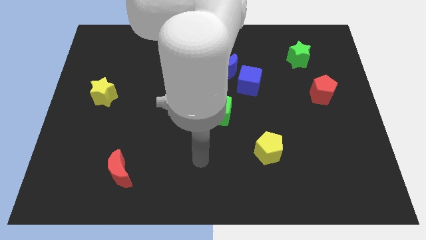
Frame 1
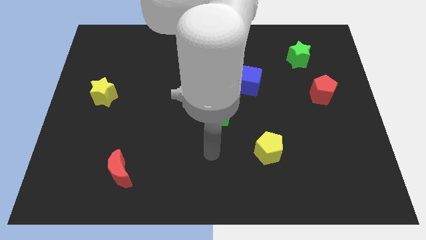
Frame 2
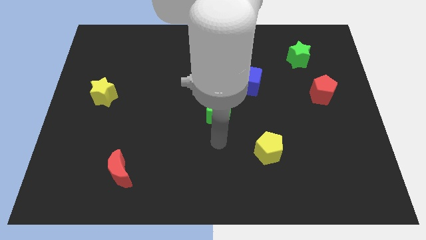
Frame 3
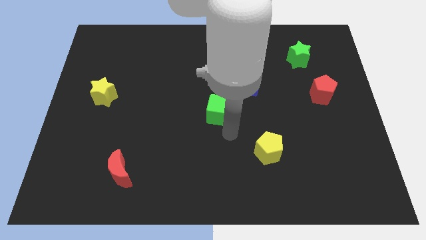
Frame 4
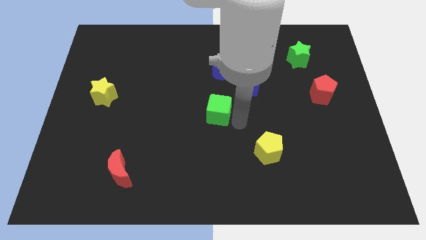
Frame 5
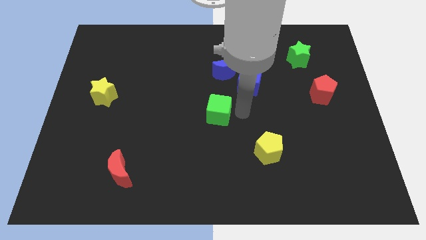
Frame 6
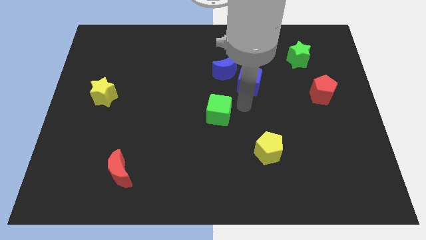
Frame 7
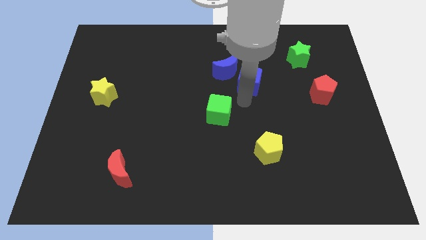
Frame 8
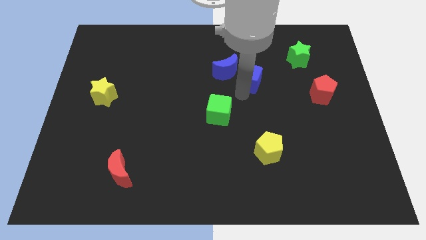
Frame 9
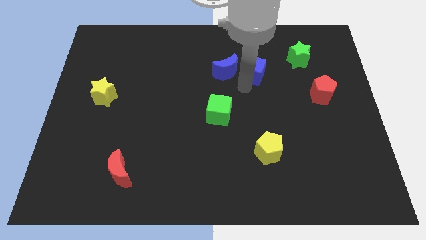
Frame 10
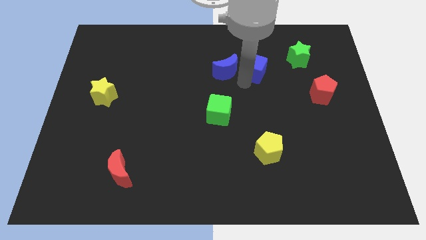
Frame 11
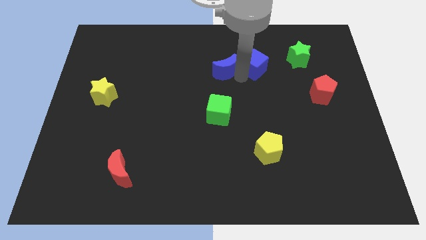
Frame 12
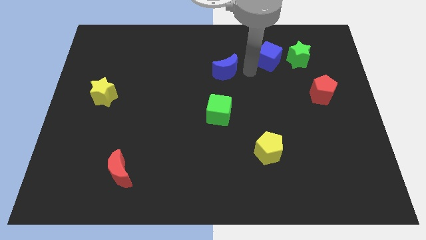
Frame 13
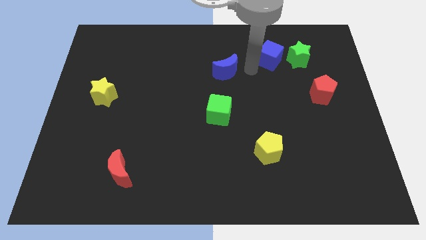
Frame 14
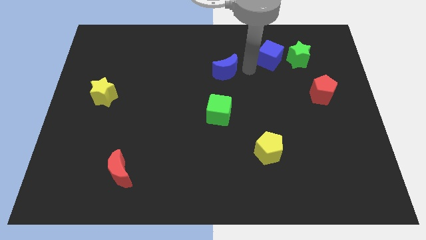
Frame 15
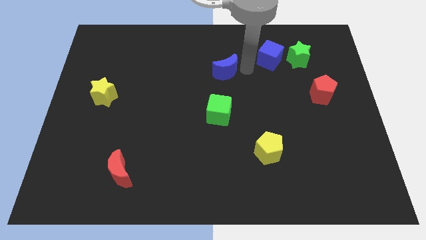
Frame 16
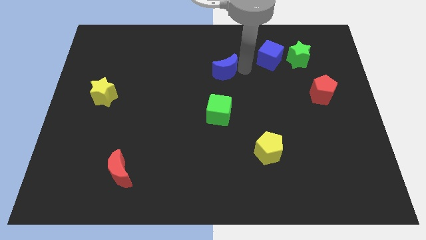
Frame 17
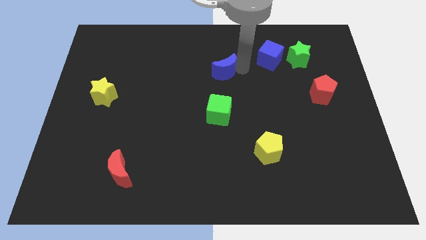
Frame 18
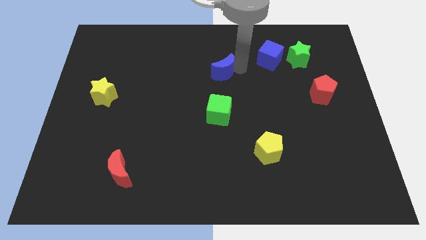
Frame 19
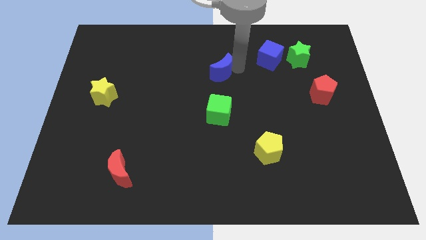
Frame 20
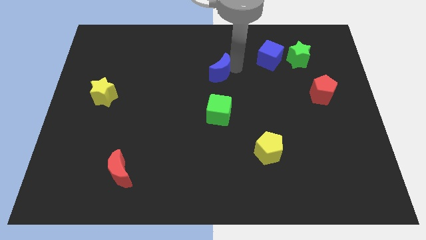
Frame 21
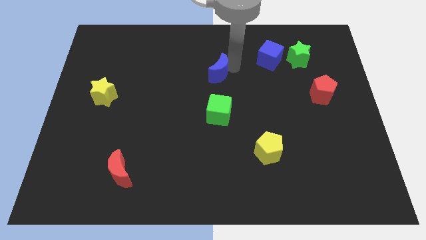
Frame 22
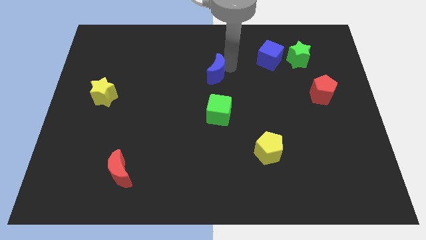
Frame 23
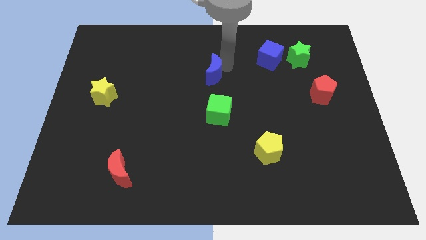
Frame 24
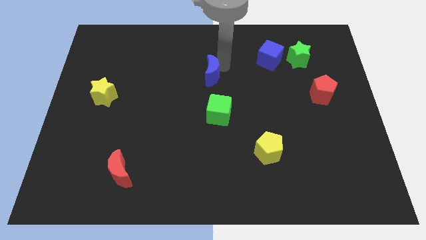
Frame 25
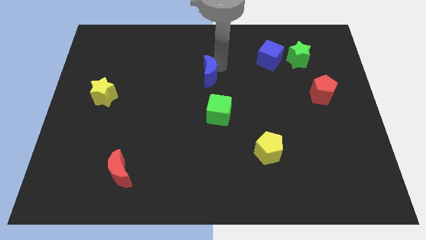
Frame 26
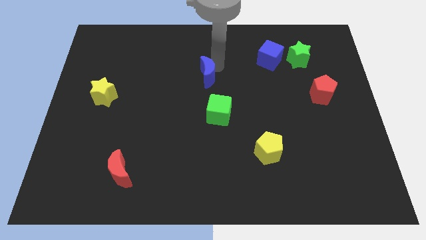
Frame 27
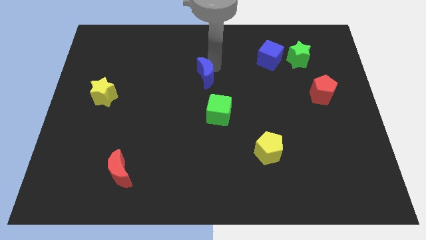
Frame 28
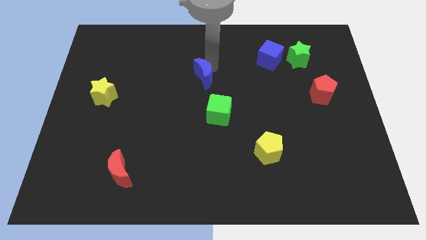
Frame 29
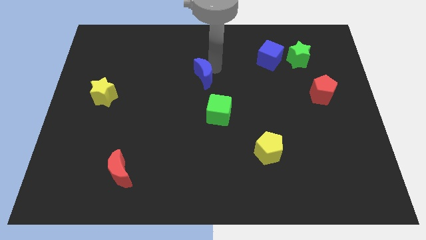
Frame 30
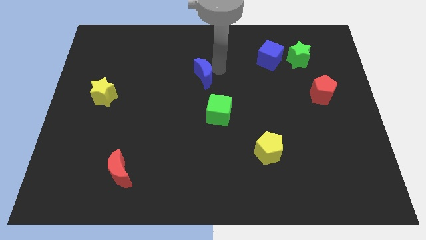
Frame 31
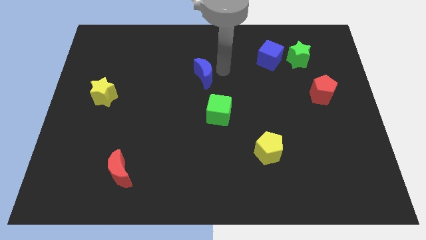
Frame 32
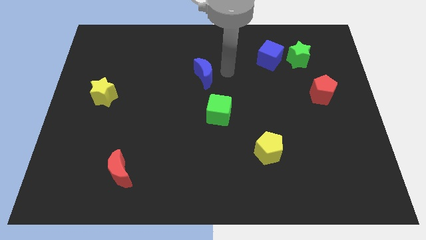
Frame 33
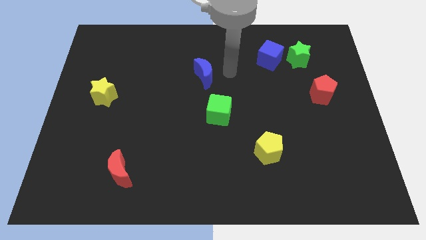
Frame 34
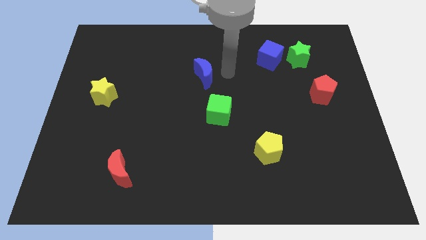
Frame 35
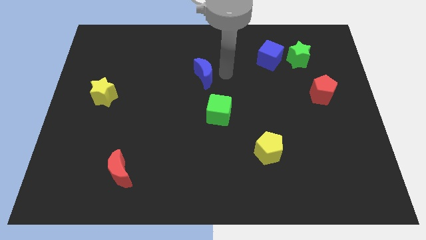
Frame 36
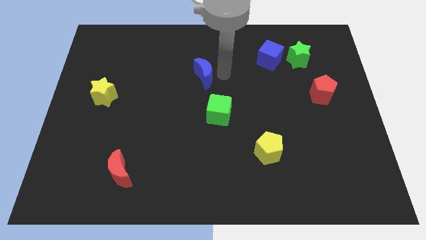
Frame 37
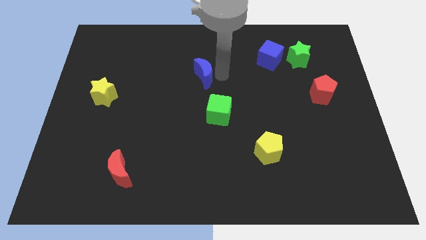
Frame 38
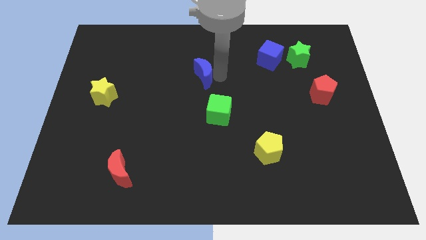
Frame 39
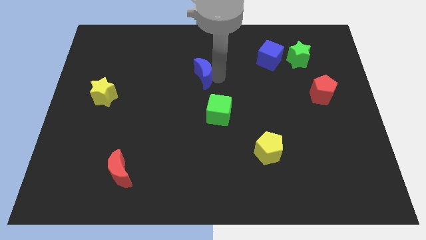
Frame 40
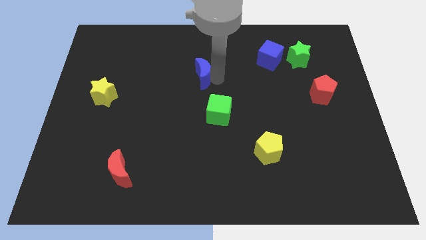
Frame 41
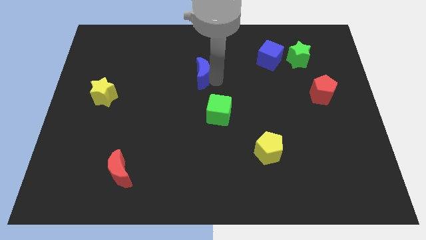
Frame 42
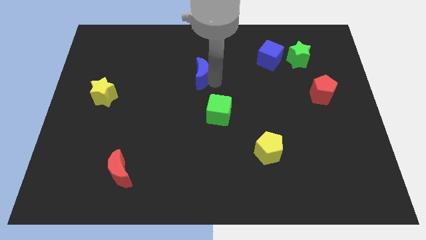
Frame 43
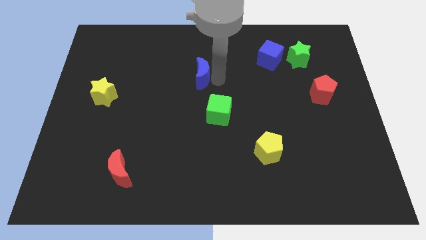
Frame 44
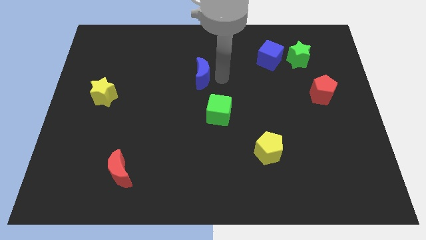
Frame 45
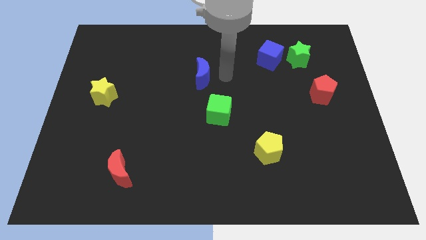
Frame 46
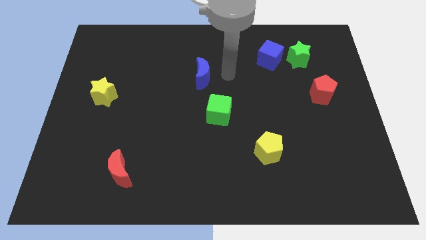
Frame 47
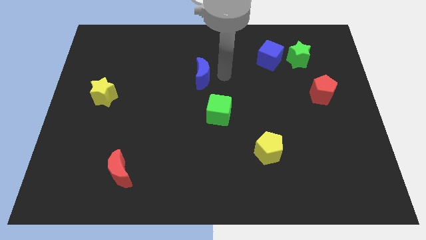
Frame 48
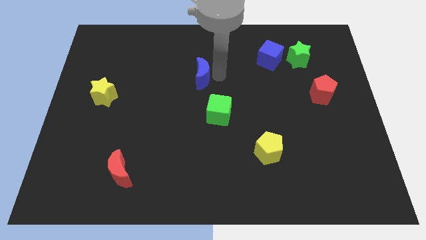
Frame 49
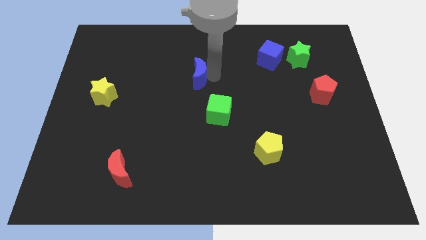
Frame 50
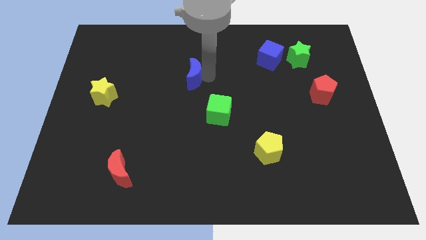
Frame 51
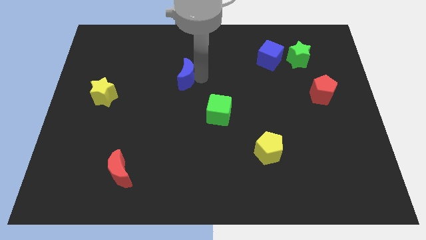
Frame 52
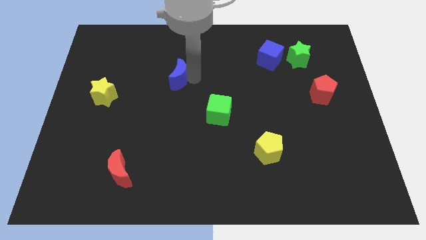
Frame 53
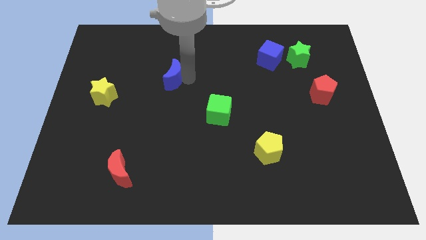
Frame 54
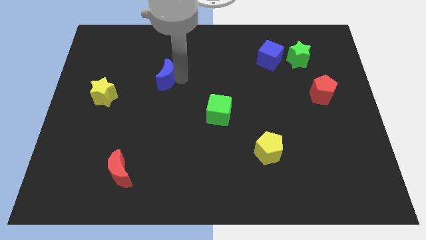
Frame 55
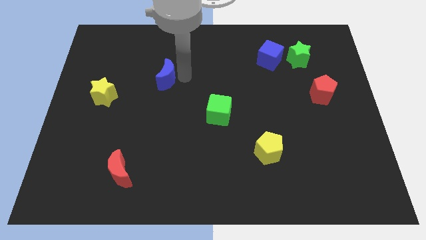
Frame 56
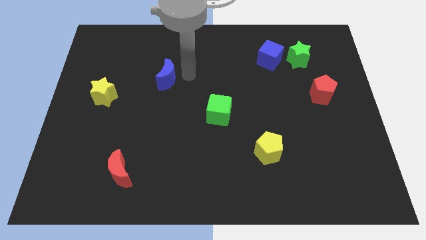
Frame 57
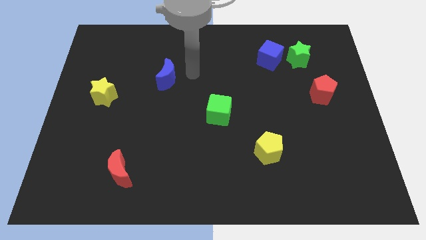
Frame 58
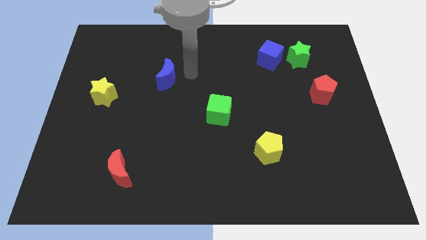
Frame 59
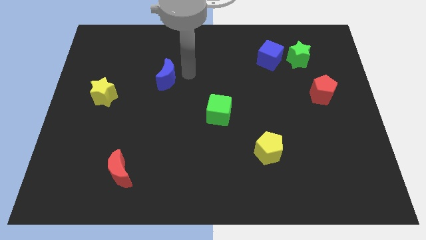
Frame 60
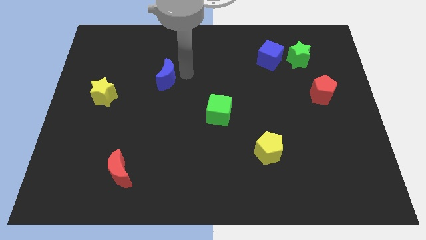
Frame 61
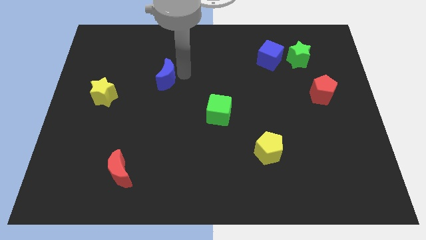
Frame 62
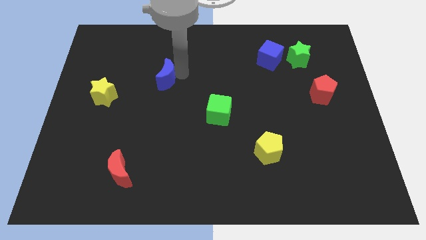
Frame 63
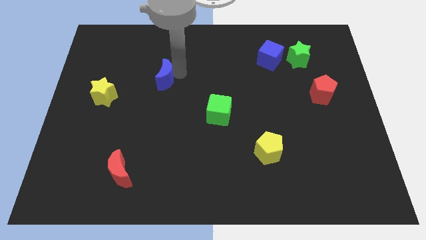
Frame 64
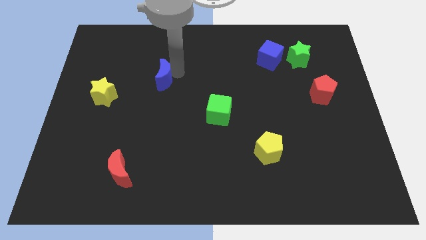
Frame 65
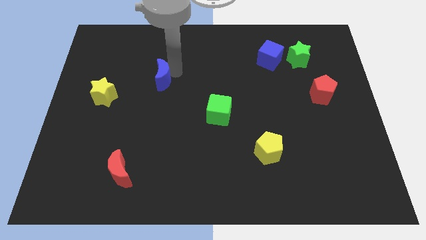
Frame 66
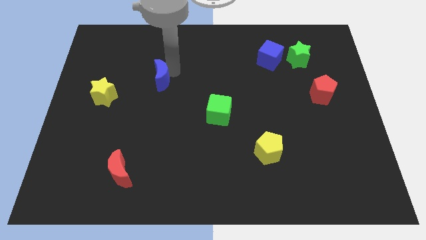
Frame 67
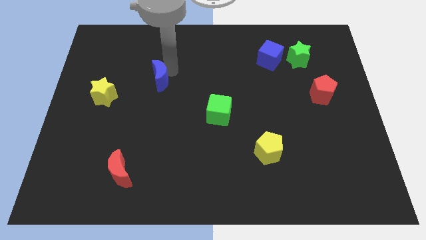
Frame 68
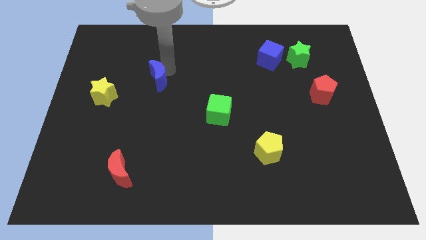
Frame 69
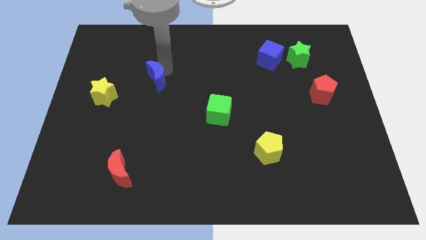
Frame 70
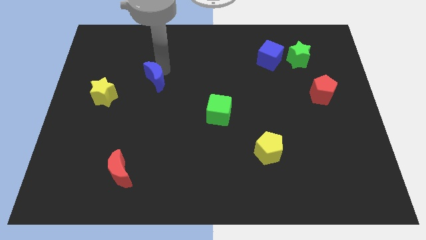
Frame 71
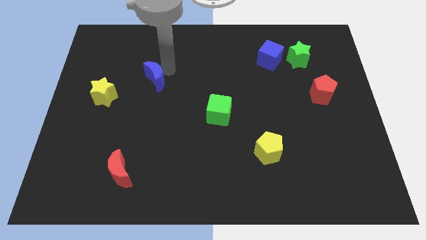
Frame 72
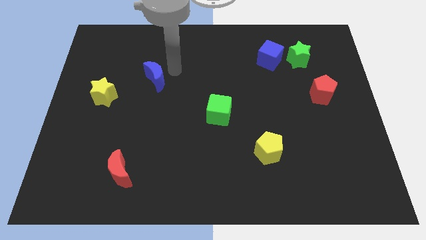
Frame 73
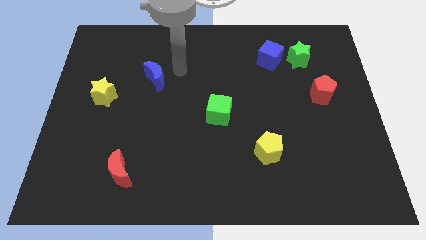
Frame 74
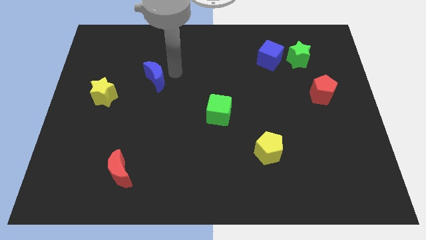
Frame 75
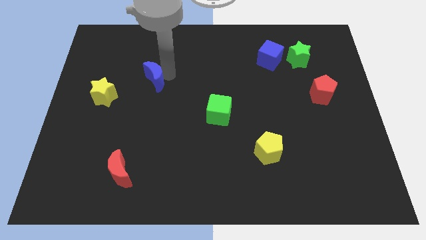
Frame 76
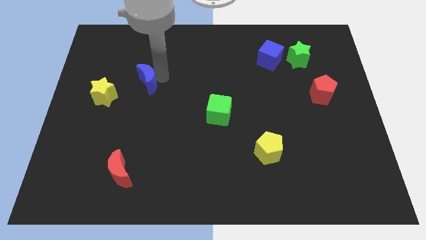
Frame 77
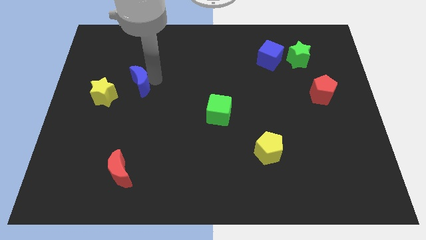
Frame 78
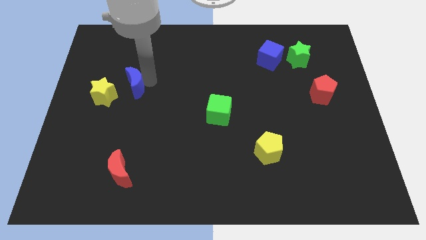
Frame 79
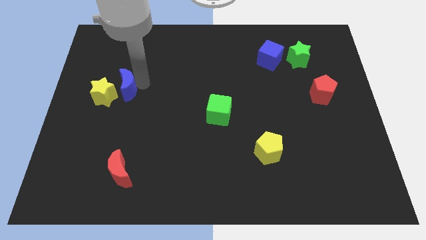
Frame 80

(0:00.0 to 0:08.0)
move the blue moon next to the yellow star
